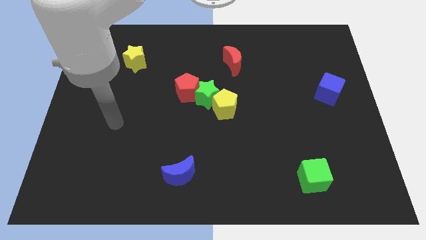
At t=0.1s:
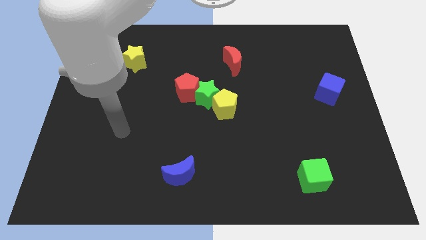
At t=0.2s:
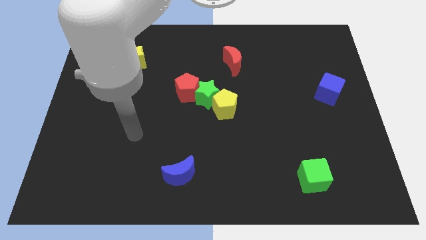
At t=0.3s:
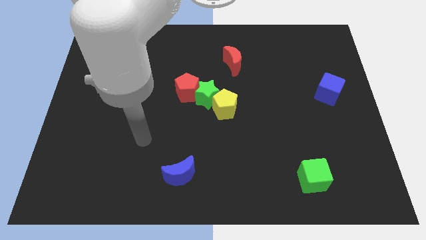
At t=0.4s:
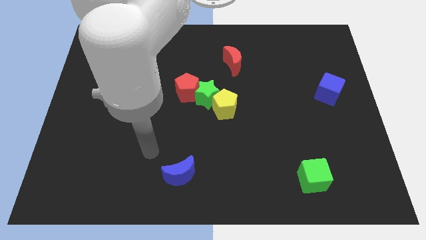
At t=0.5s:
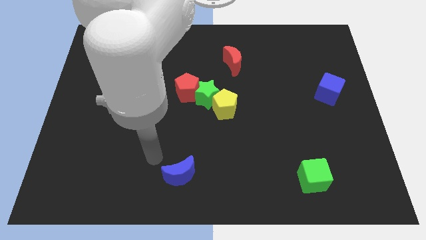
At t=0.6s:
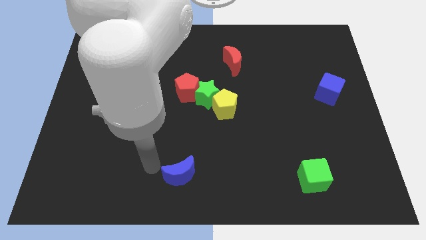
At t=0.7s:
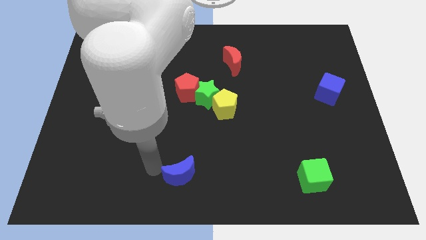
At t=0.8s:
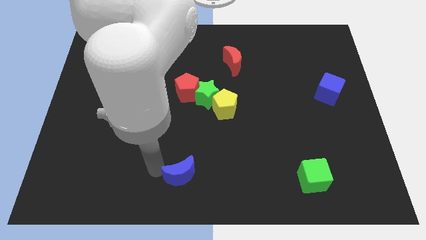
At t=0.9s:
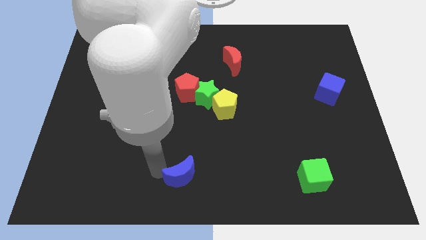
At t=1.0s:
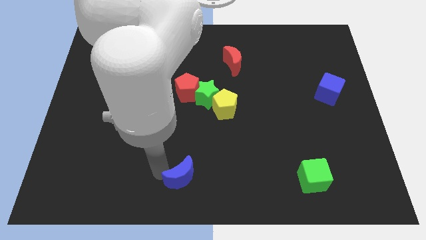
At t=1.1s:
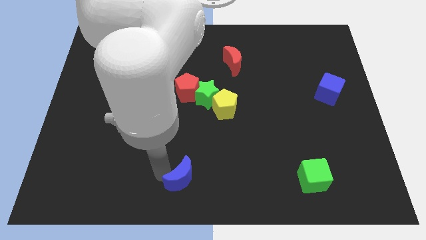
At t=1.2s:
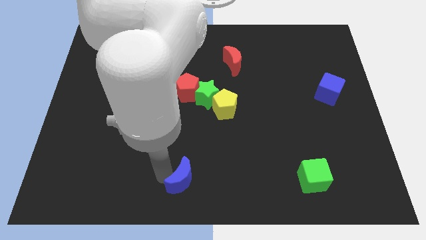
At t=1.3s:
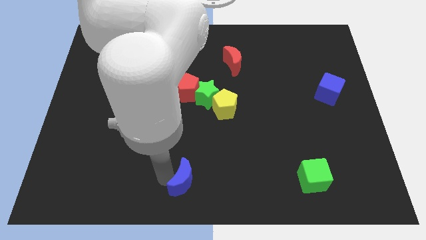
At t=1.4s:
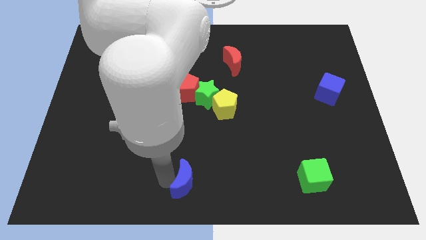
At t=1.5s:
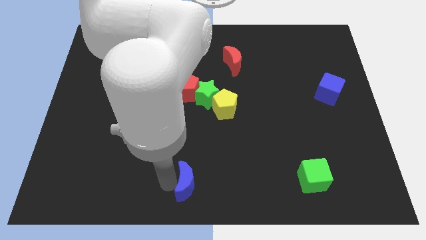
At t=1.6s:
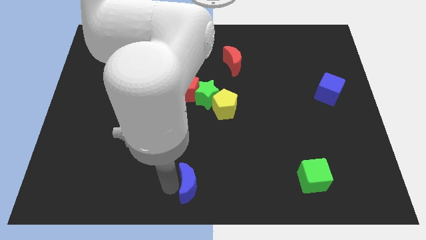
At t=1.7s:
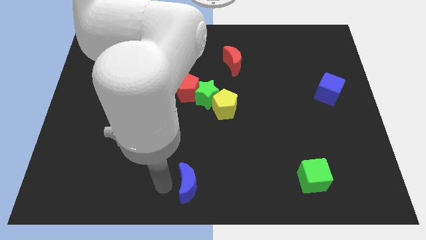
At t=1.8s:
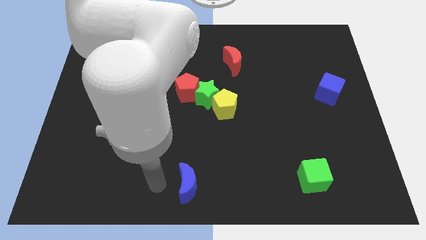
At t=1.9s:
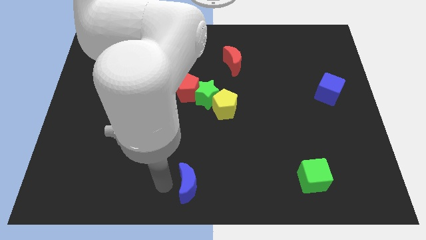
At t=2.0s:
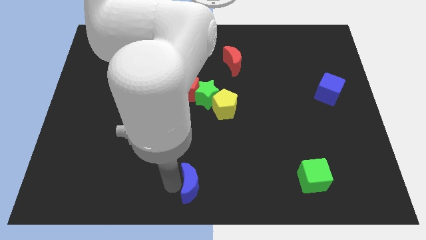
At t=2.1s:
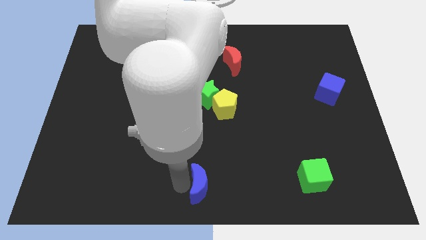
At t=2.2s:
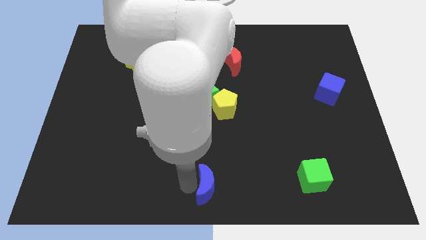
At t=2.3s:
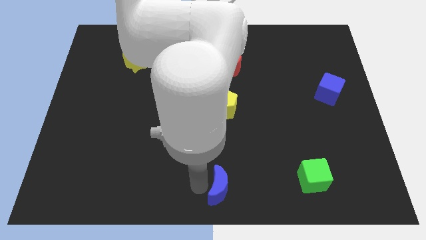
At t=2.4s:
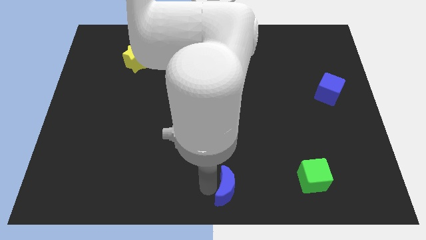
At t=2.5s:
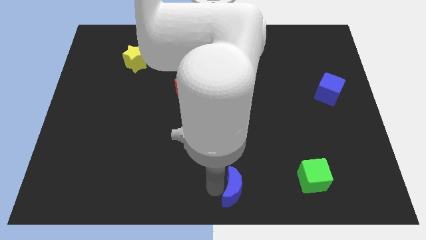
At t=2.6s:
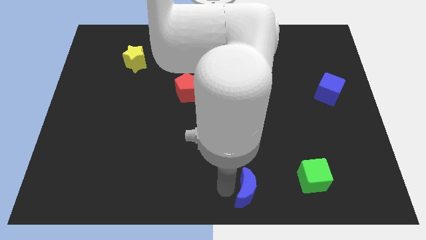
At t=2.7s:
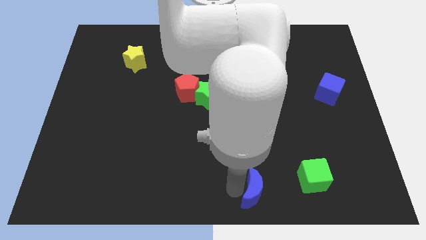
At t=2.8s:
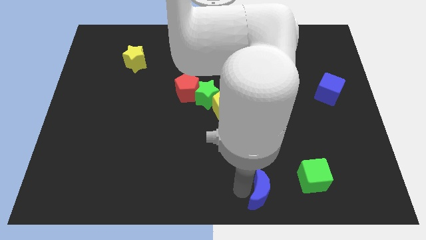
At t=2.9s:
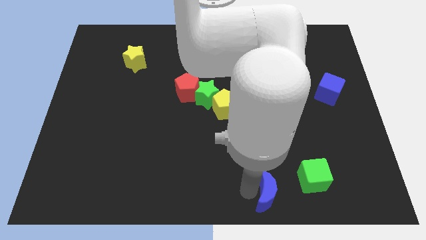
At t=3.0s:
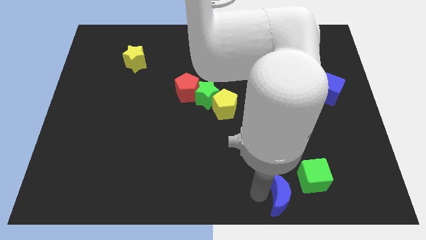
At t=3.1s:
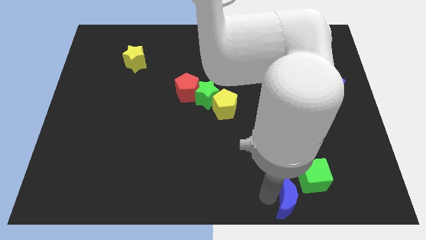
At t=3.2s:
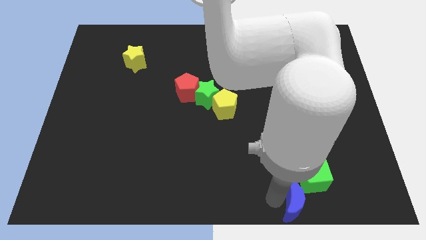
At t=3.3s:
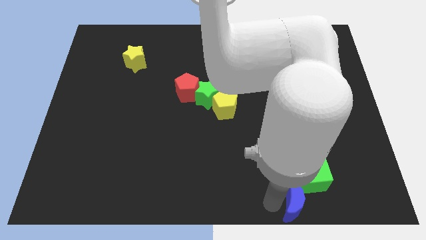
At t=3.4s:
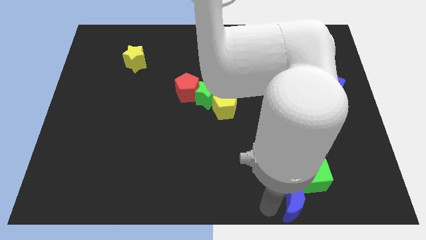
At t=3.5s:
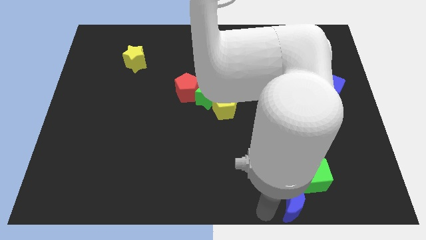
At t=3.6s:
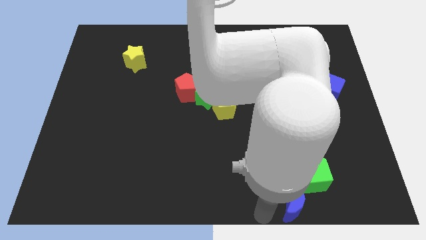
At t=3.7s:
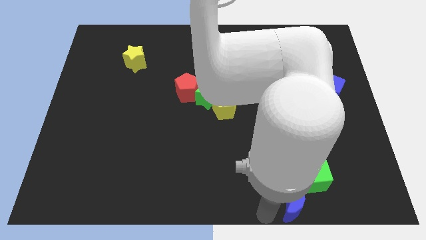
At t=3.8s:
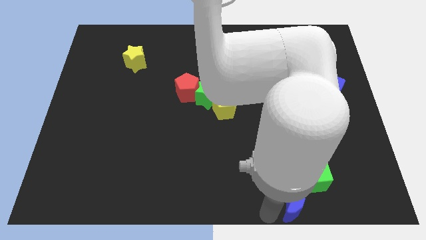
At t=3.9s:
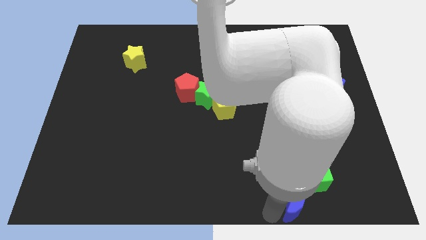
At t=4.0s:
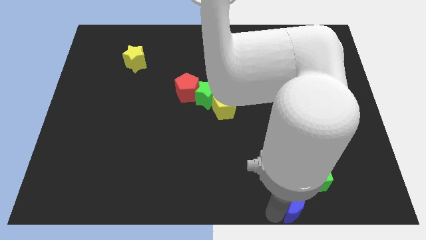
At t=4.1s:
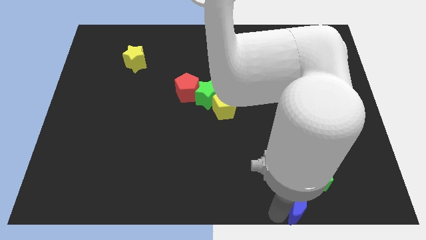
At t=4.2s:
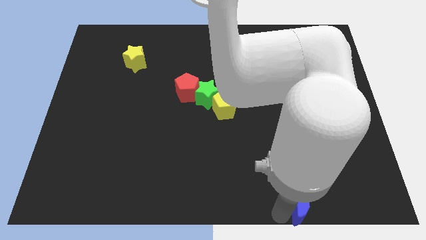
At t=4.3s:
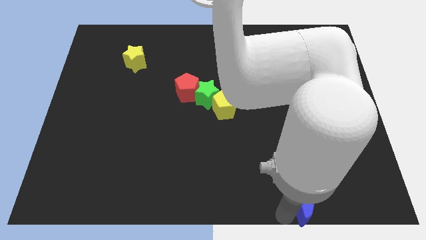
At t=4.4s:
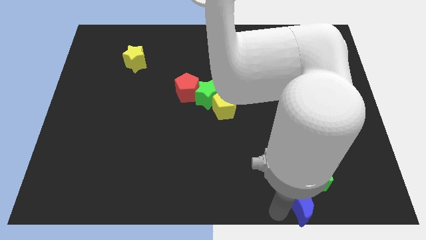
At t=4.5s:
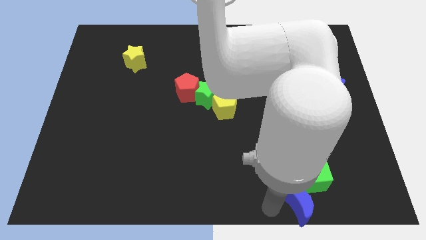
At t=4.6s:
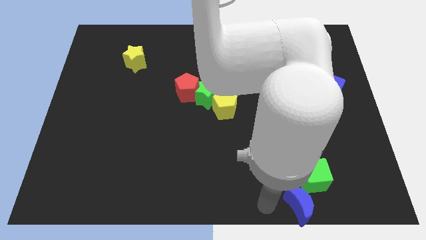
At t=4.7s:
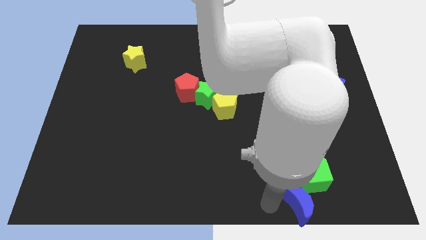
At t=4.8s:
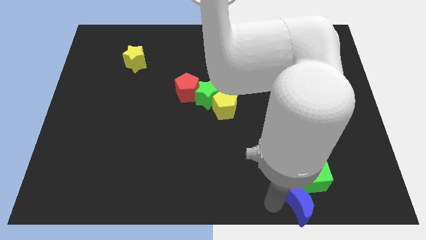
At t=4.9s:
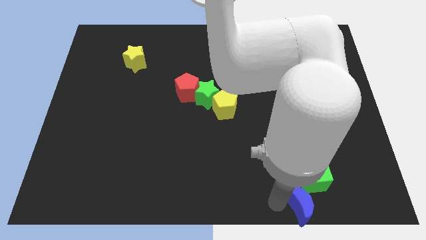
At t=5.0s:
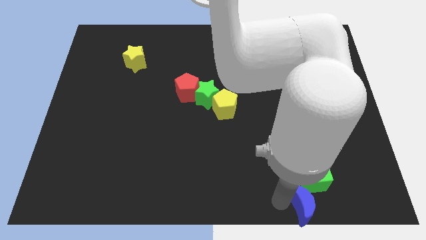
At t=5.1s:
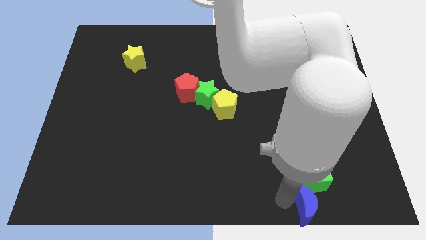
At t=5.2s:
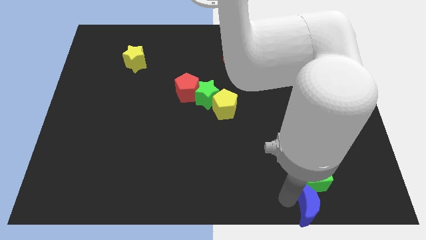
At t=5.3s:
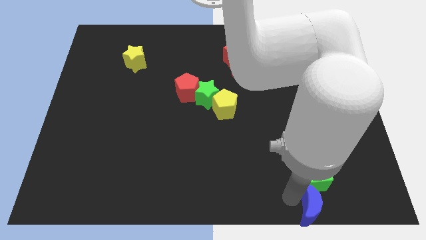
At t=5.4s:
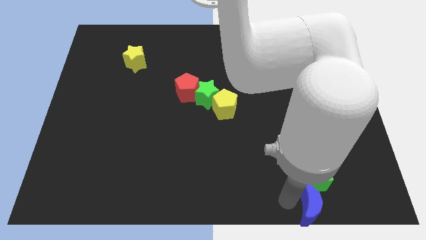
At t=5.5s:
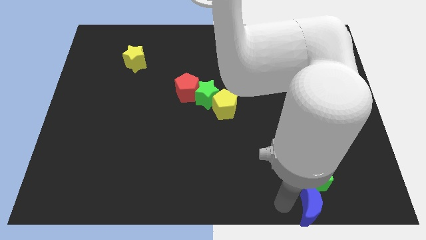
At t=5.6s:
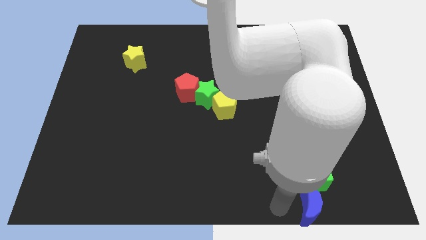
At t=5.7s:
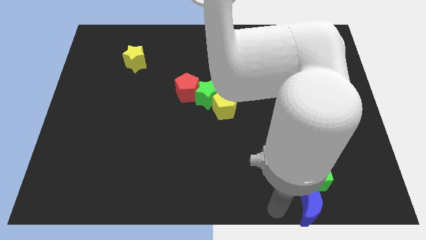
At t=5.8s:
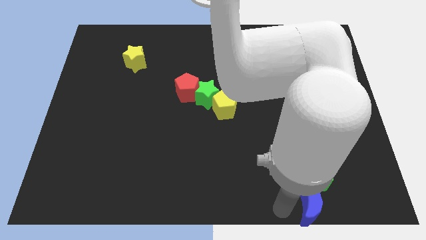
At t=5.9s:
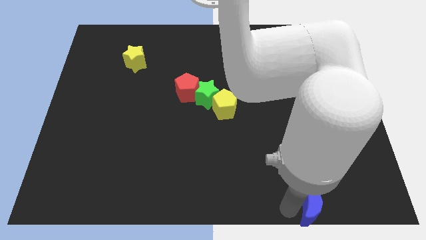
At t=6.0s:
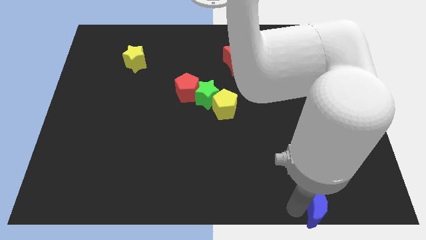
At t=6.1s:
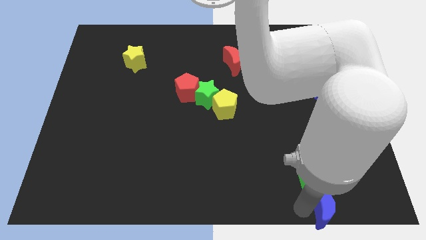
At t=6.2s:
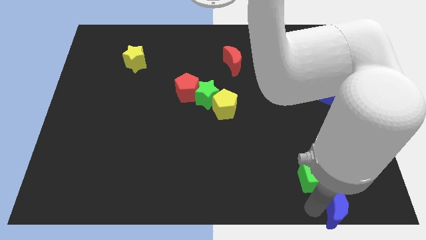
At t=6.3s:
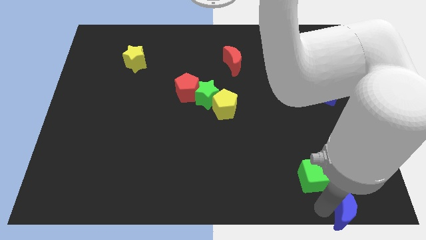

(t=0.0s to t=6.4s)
push the blue moon to the bottom right corner
